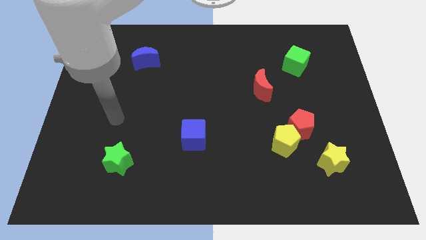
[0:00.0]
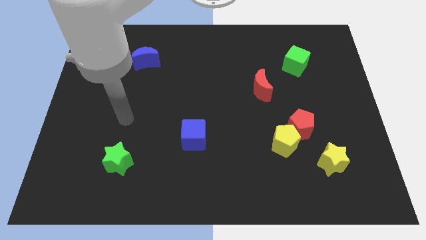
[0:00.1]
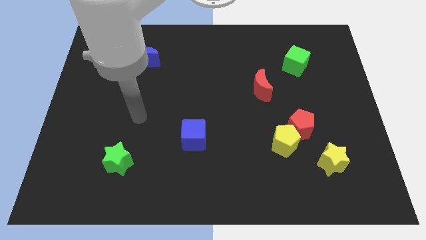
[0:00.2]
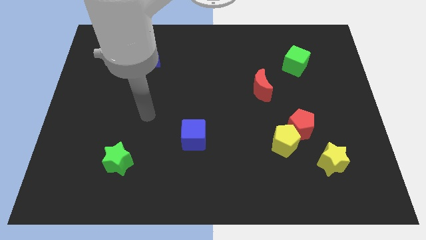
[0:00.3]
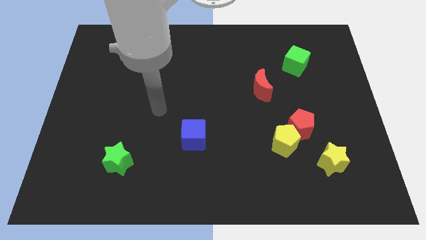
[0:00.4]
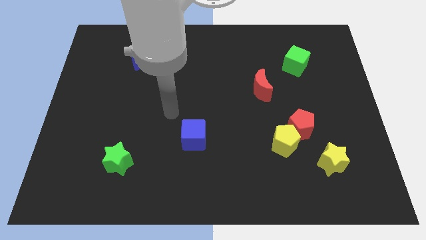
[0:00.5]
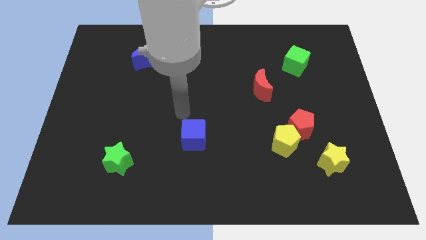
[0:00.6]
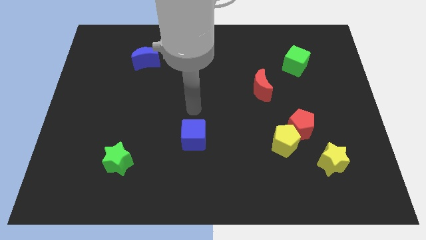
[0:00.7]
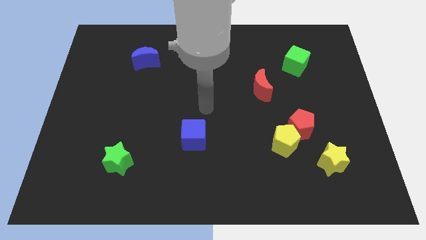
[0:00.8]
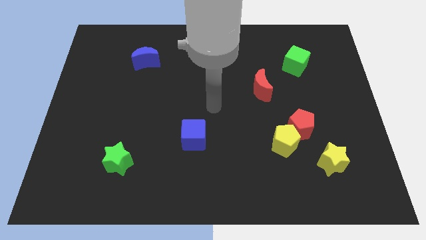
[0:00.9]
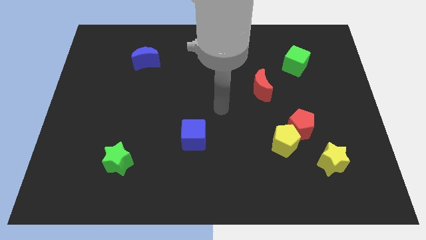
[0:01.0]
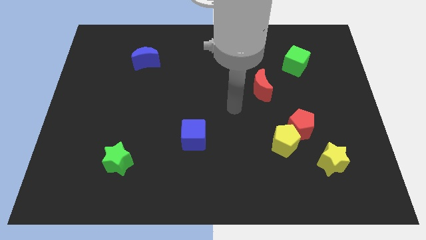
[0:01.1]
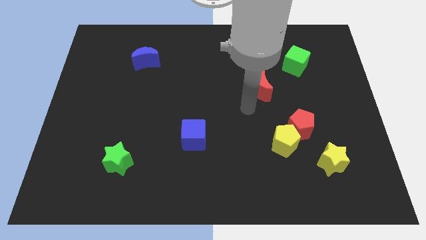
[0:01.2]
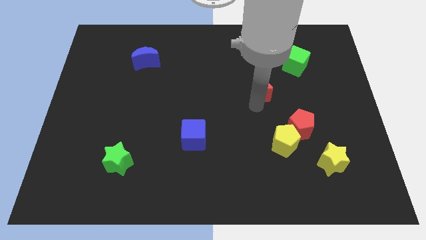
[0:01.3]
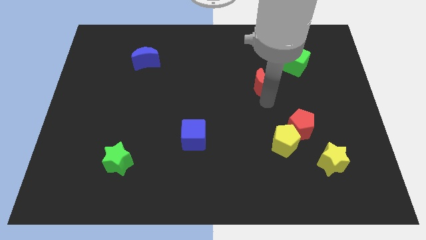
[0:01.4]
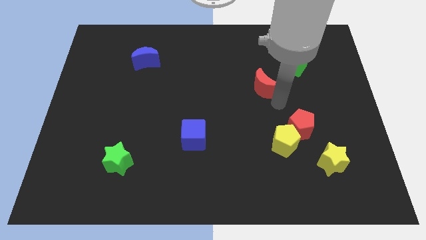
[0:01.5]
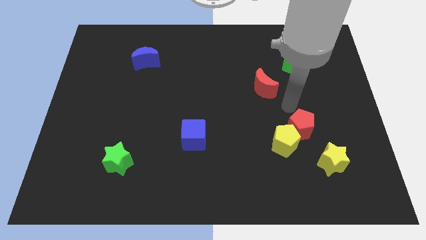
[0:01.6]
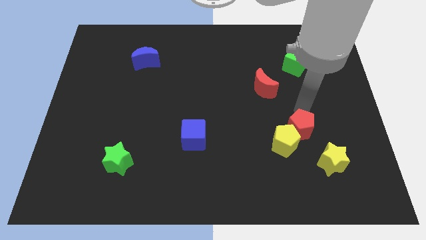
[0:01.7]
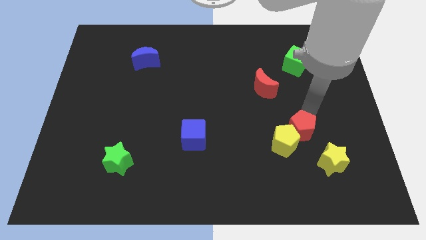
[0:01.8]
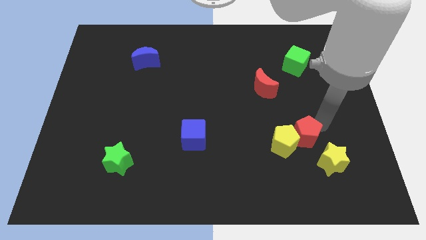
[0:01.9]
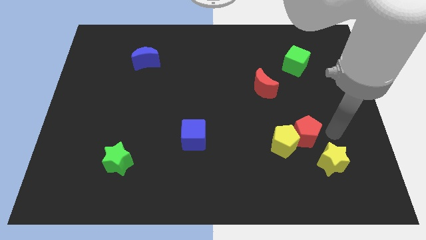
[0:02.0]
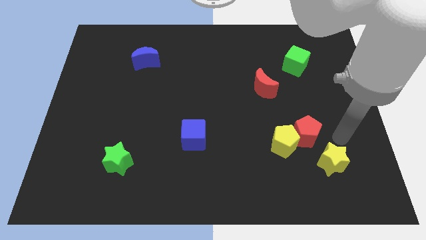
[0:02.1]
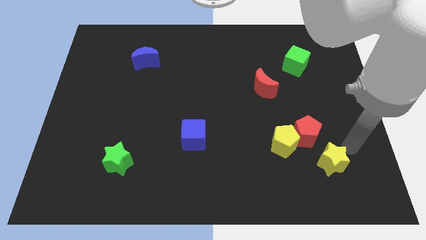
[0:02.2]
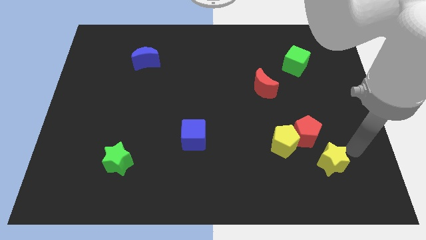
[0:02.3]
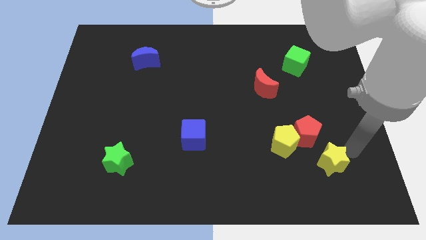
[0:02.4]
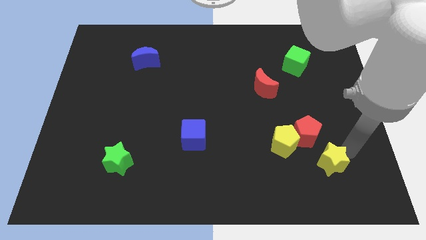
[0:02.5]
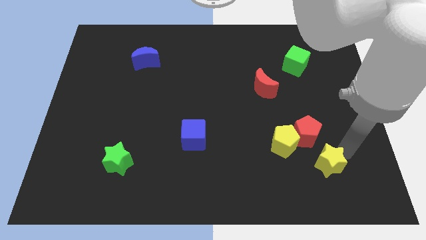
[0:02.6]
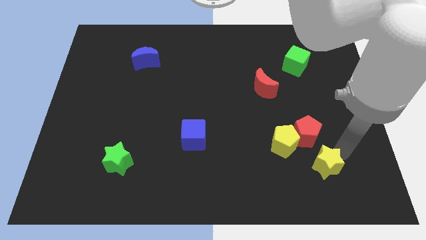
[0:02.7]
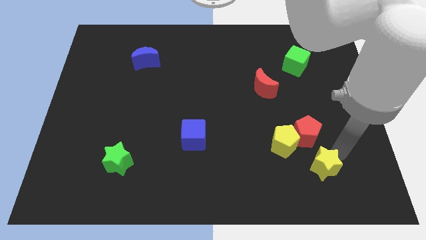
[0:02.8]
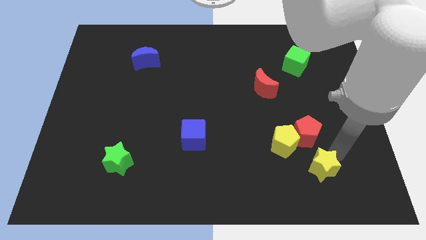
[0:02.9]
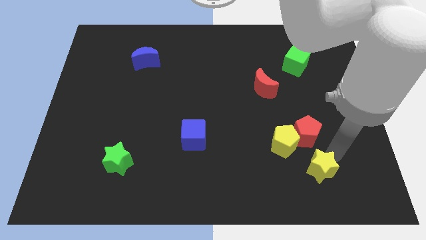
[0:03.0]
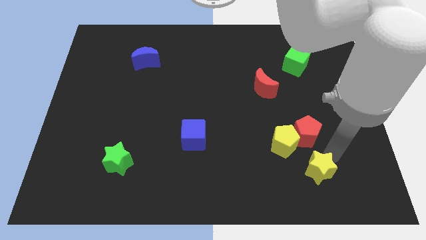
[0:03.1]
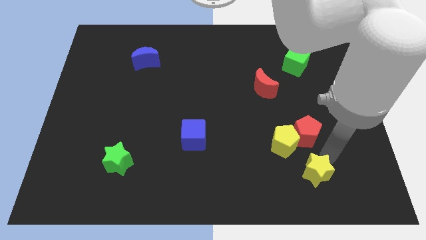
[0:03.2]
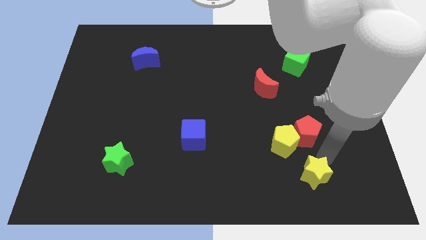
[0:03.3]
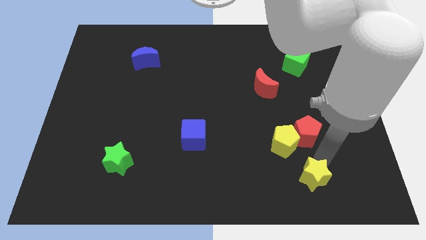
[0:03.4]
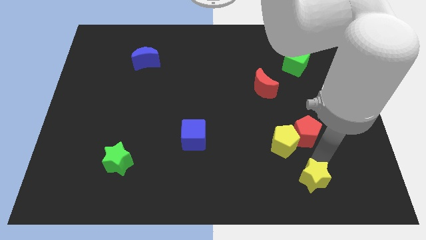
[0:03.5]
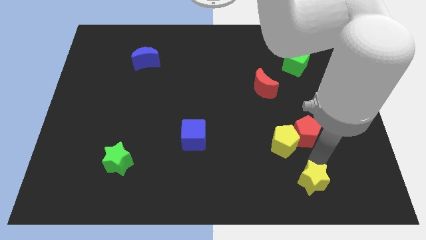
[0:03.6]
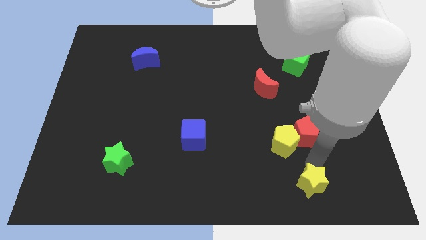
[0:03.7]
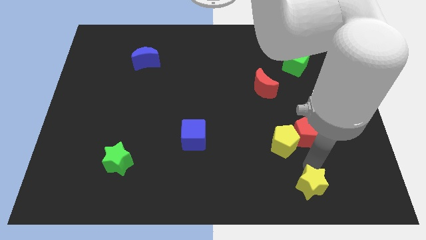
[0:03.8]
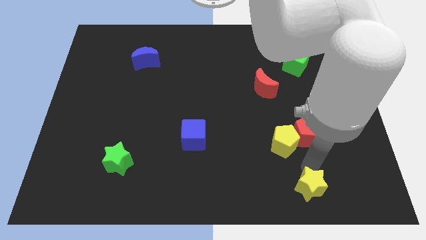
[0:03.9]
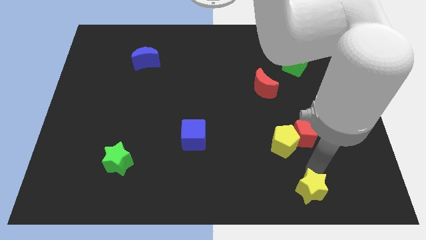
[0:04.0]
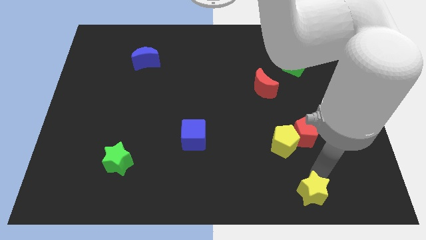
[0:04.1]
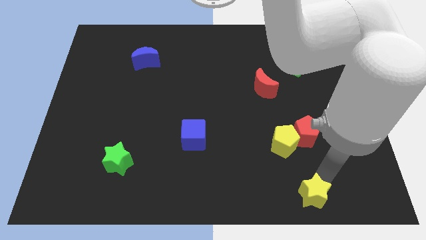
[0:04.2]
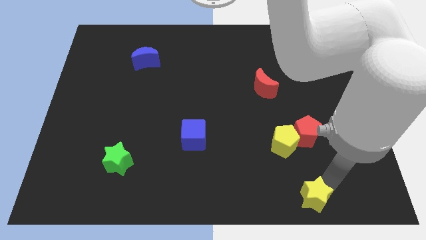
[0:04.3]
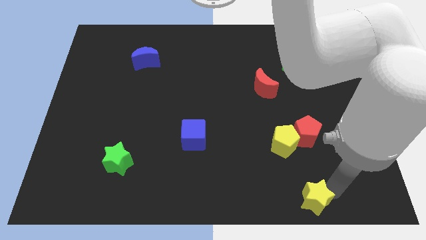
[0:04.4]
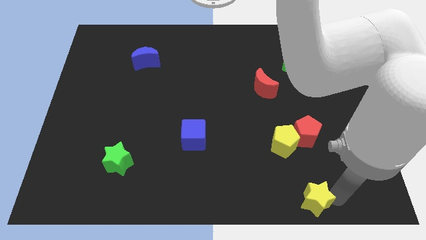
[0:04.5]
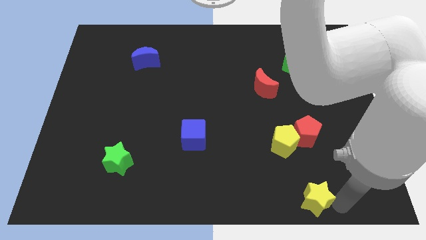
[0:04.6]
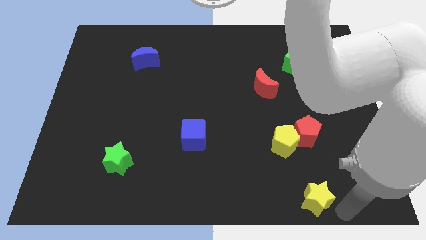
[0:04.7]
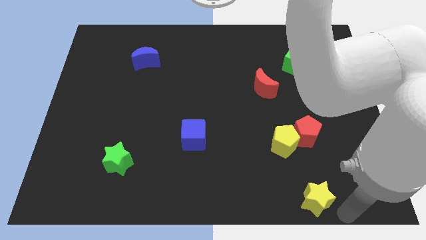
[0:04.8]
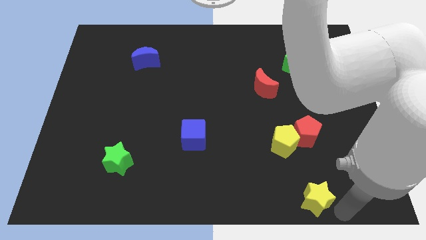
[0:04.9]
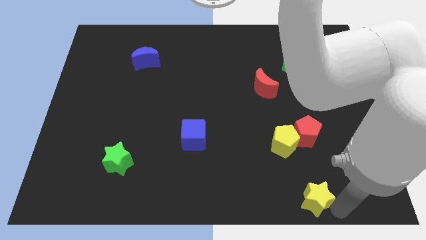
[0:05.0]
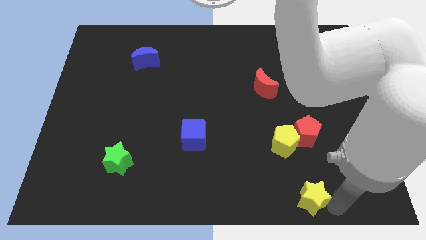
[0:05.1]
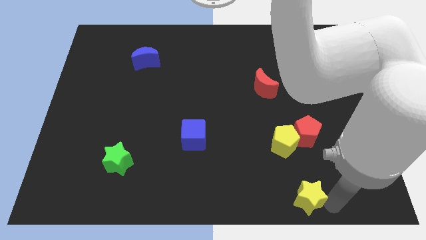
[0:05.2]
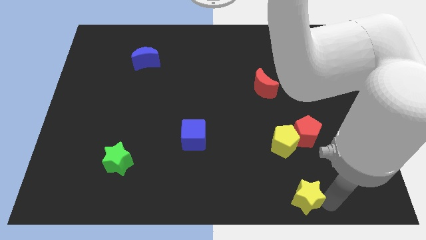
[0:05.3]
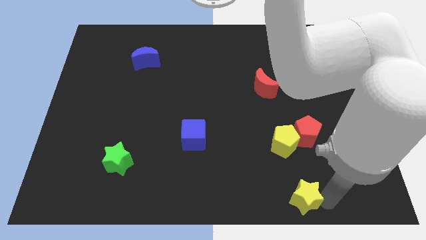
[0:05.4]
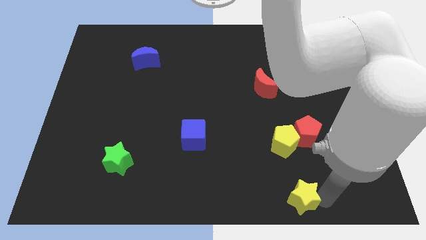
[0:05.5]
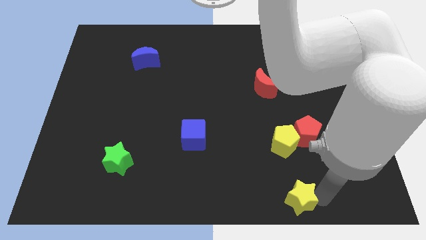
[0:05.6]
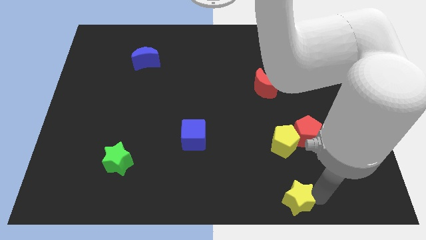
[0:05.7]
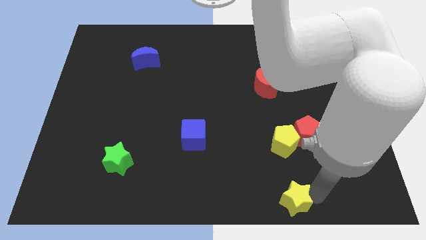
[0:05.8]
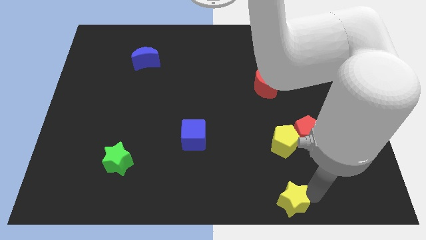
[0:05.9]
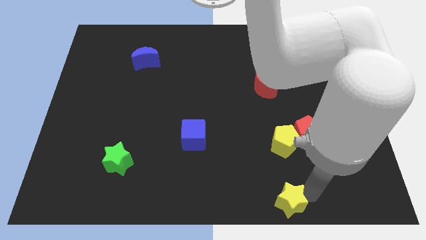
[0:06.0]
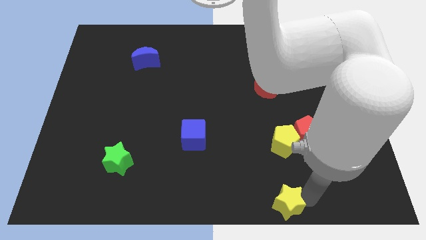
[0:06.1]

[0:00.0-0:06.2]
move the yellow star to the bottom
